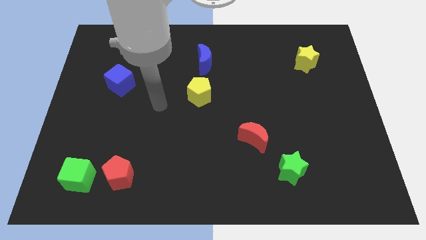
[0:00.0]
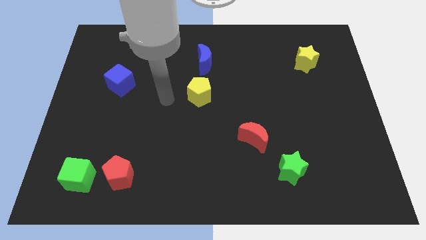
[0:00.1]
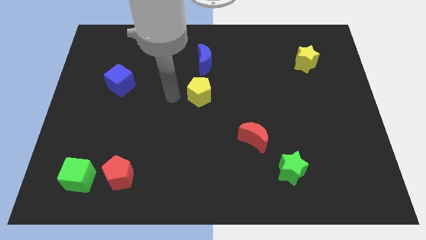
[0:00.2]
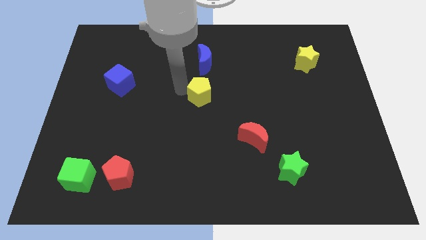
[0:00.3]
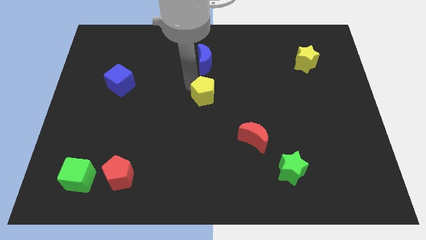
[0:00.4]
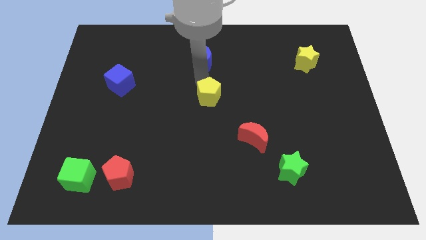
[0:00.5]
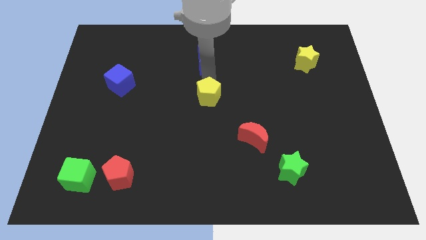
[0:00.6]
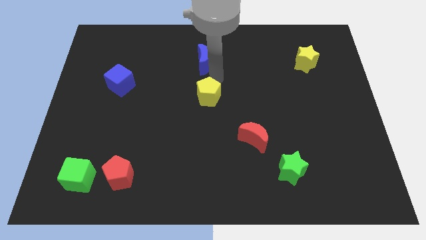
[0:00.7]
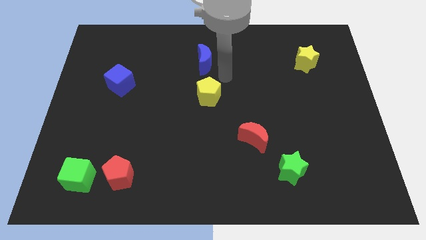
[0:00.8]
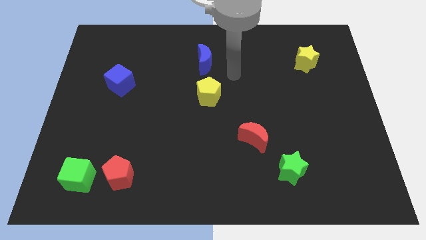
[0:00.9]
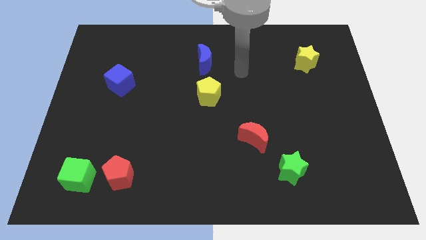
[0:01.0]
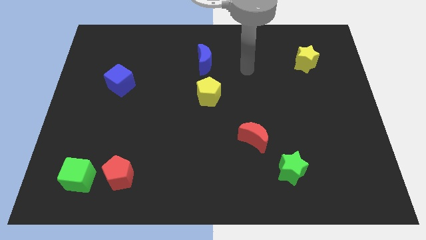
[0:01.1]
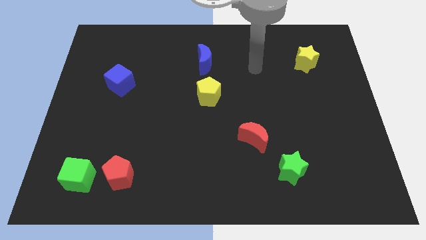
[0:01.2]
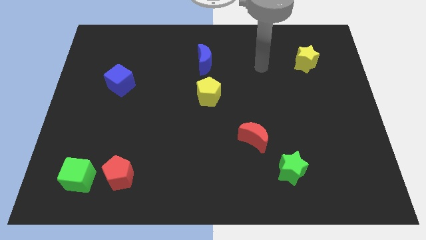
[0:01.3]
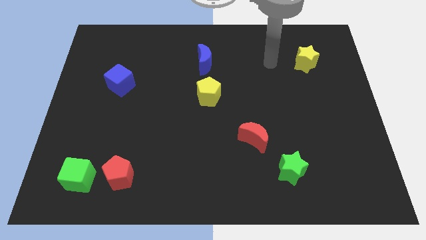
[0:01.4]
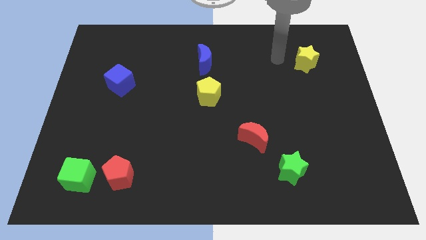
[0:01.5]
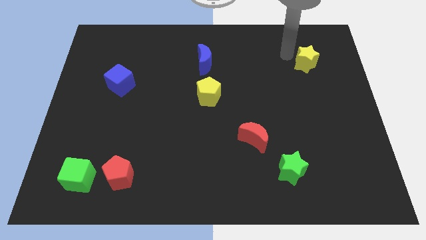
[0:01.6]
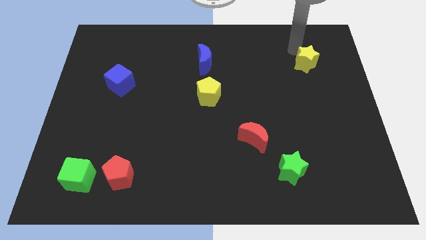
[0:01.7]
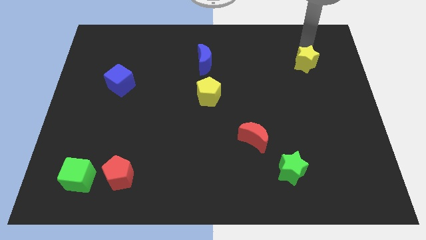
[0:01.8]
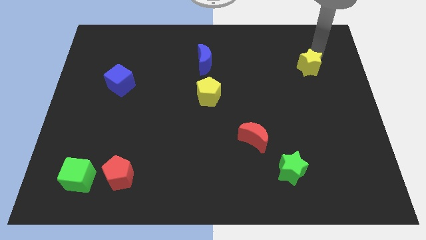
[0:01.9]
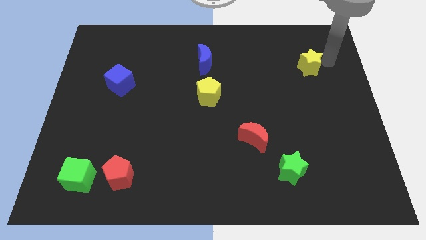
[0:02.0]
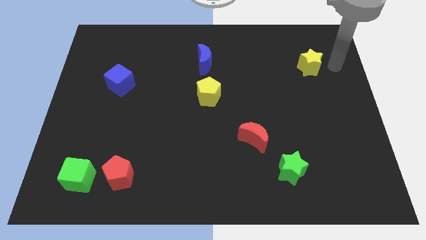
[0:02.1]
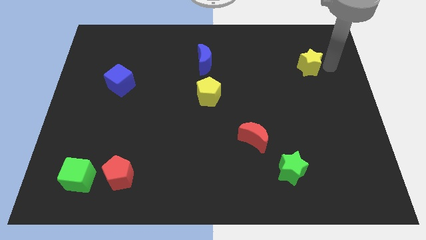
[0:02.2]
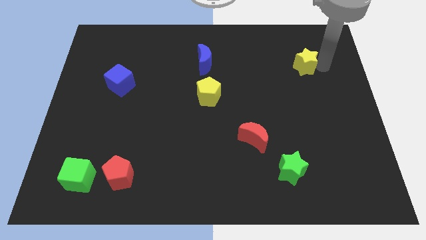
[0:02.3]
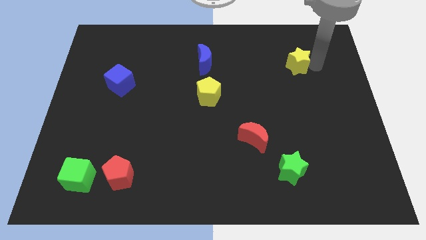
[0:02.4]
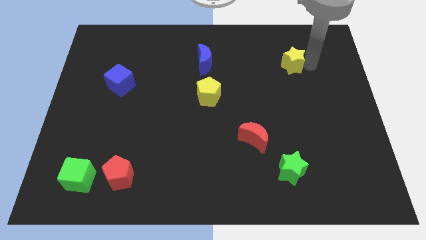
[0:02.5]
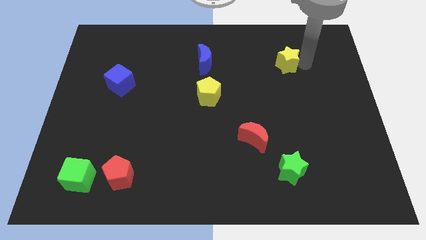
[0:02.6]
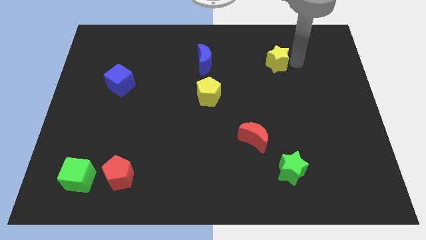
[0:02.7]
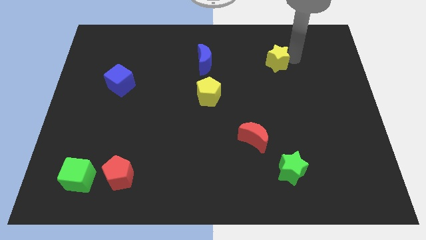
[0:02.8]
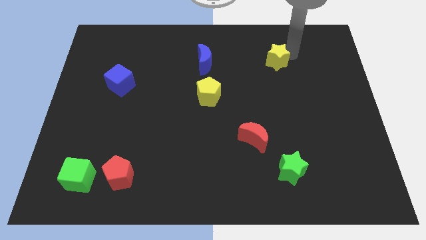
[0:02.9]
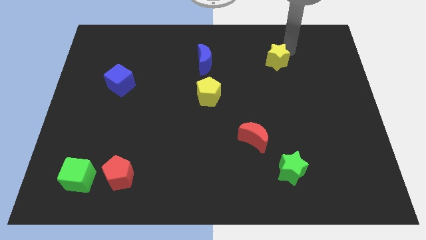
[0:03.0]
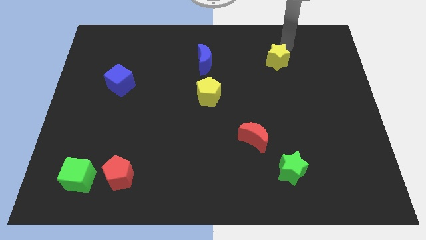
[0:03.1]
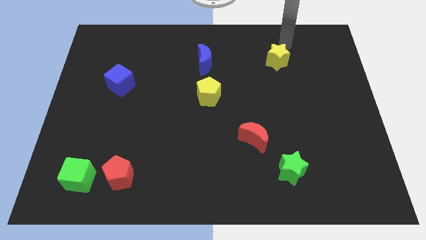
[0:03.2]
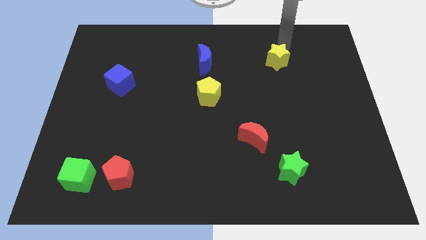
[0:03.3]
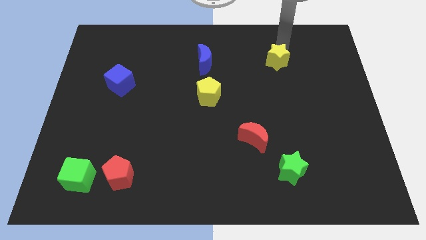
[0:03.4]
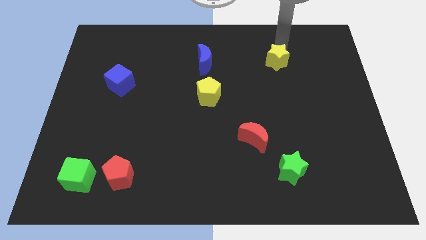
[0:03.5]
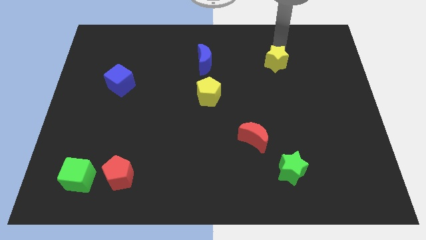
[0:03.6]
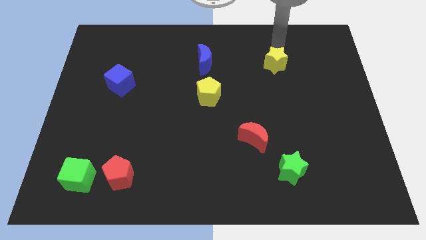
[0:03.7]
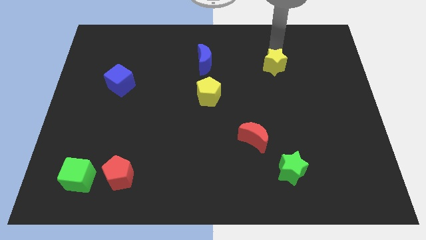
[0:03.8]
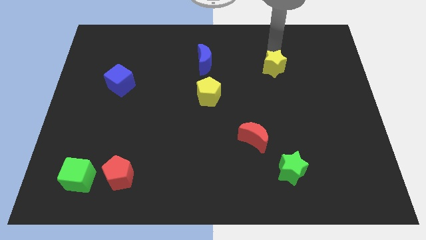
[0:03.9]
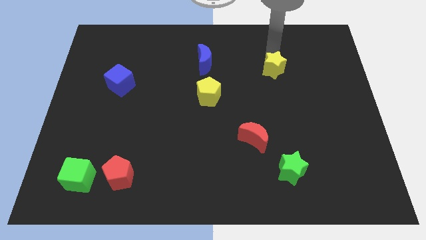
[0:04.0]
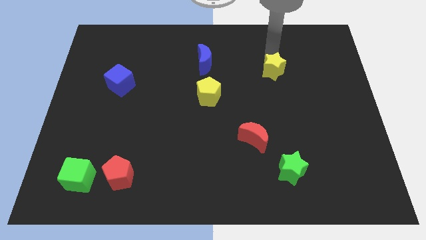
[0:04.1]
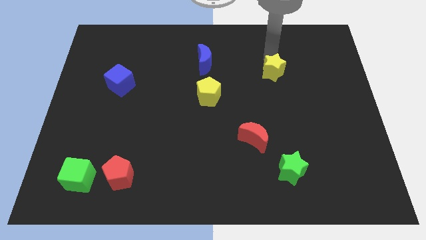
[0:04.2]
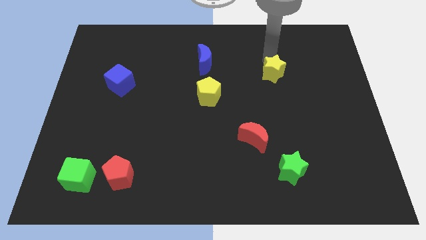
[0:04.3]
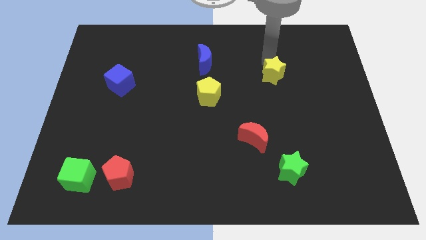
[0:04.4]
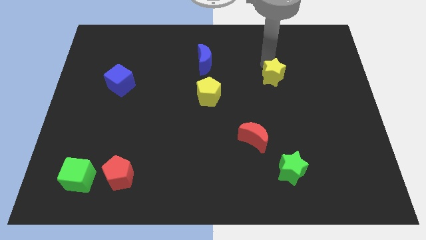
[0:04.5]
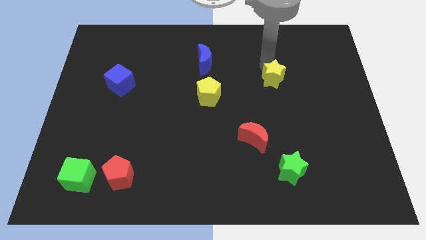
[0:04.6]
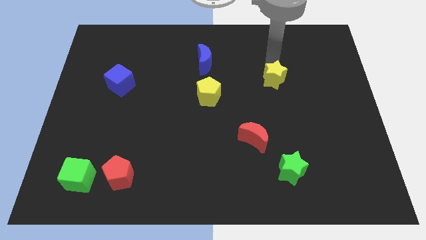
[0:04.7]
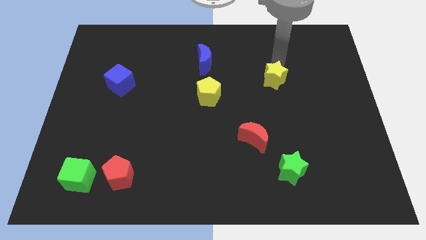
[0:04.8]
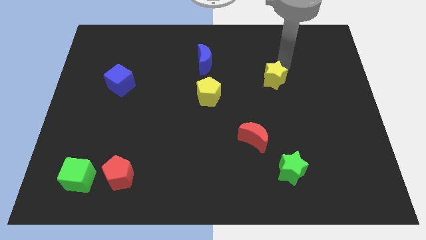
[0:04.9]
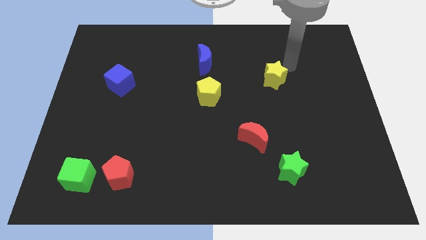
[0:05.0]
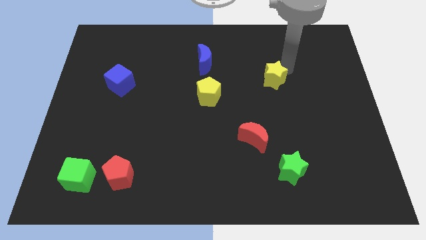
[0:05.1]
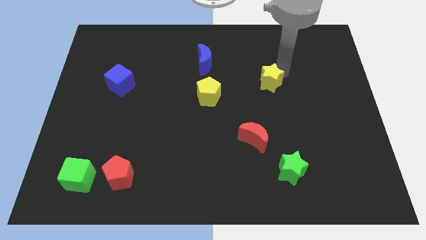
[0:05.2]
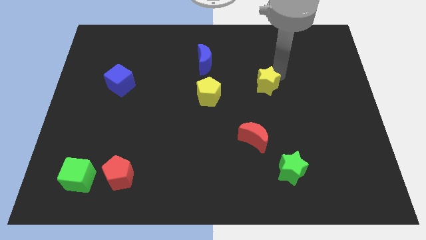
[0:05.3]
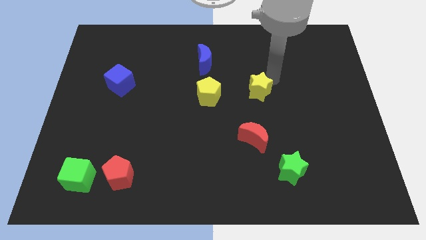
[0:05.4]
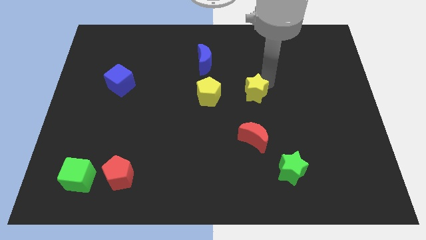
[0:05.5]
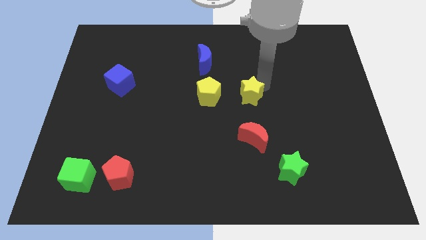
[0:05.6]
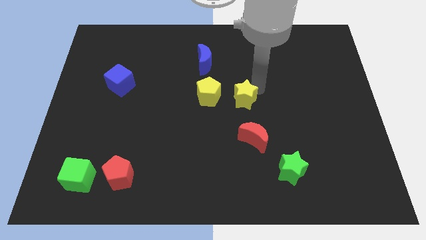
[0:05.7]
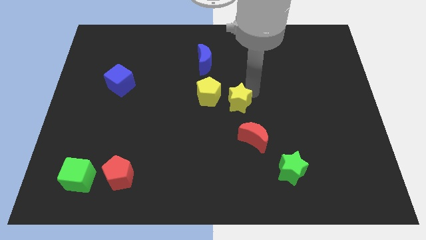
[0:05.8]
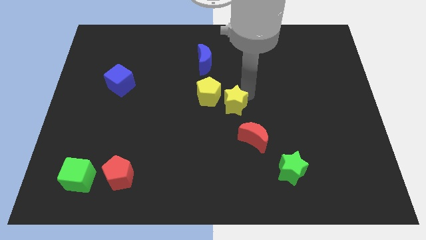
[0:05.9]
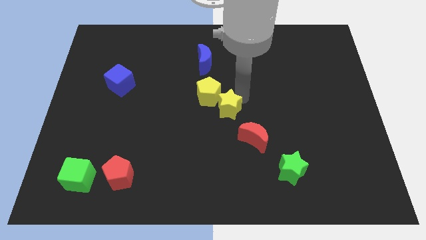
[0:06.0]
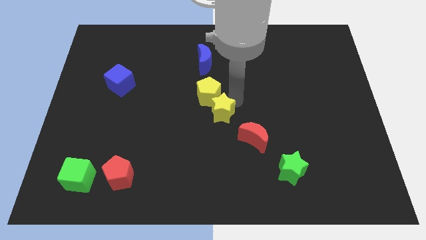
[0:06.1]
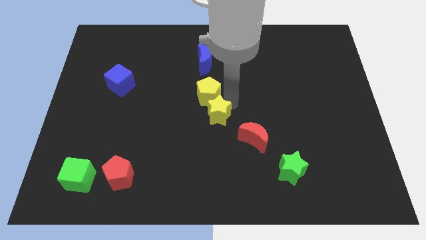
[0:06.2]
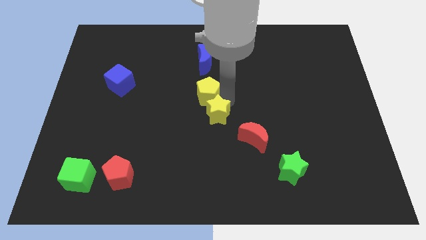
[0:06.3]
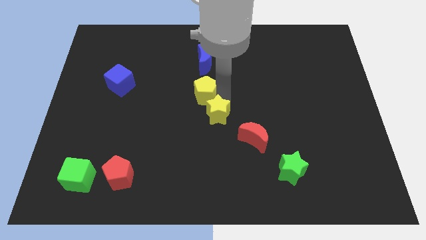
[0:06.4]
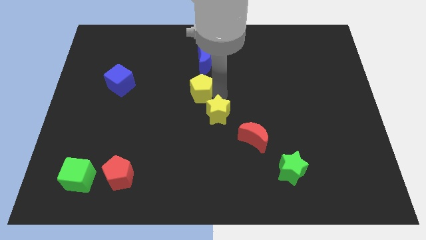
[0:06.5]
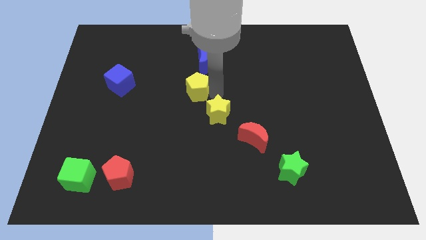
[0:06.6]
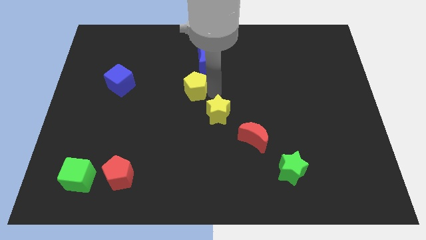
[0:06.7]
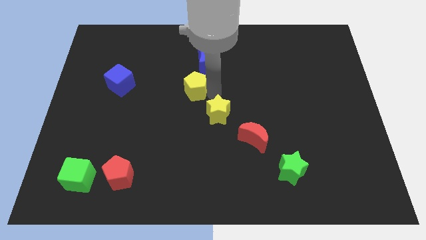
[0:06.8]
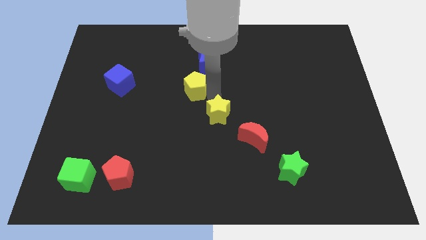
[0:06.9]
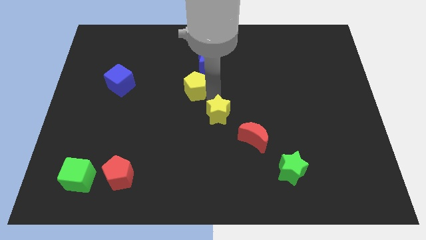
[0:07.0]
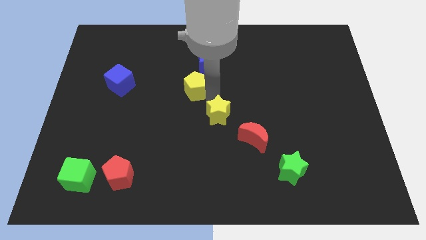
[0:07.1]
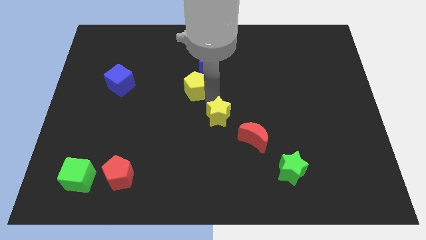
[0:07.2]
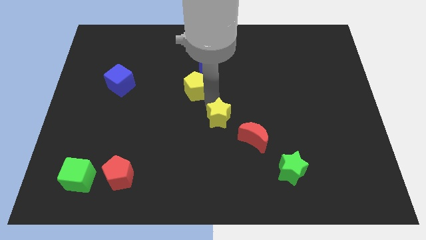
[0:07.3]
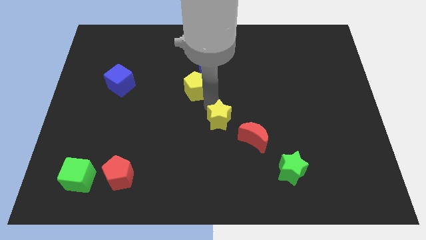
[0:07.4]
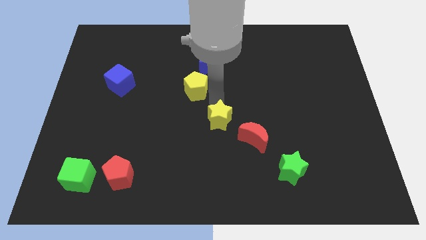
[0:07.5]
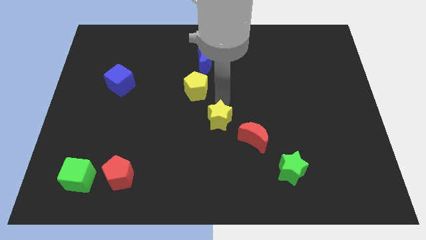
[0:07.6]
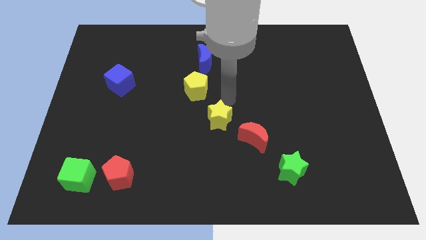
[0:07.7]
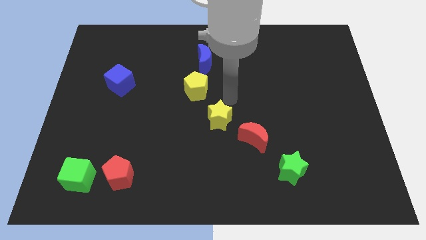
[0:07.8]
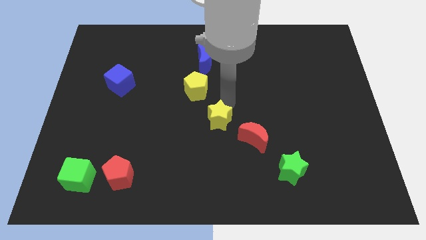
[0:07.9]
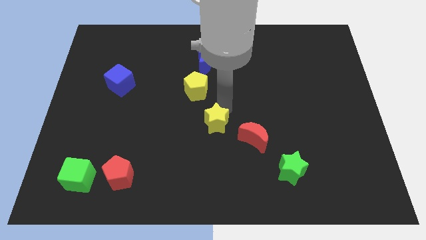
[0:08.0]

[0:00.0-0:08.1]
push the yellow star just left of the red moon
